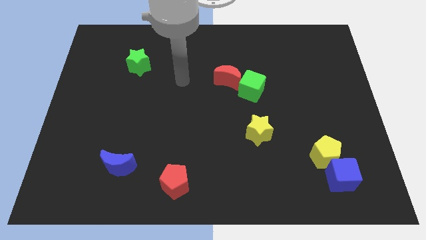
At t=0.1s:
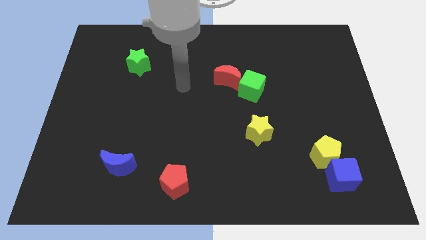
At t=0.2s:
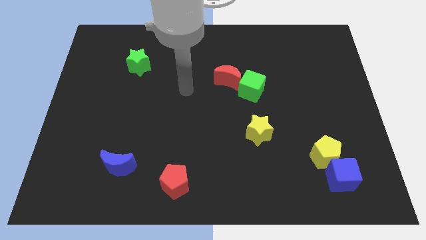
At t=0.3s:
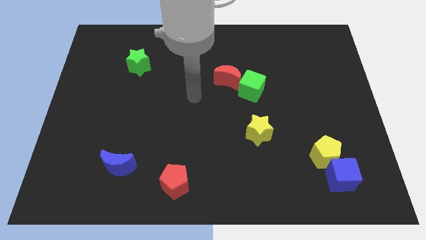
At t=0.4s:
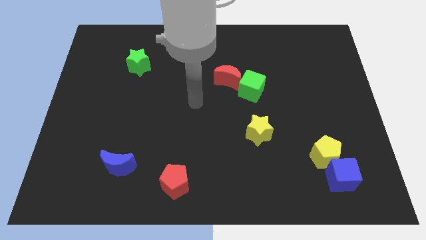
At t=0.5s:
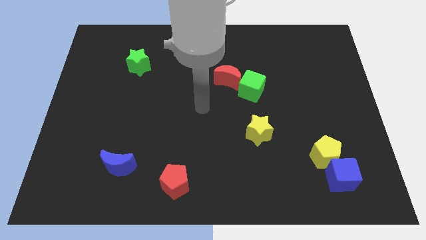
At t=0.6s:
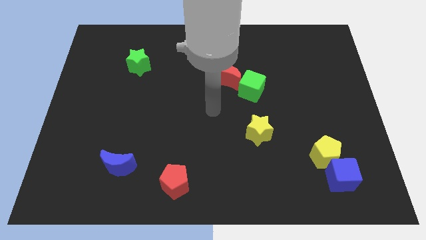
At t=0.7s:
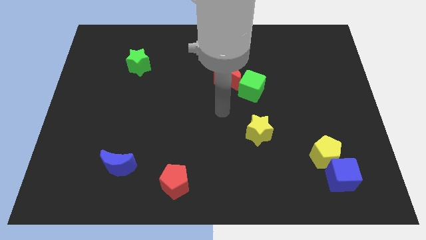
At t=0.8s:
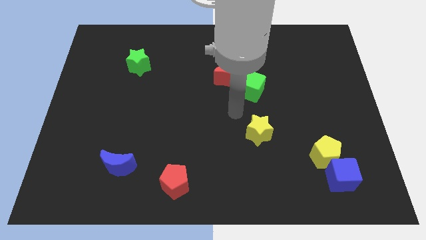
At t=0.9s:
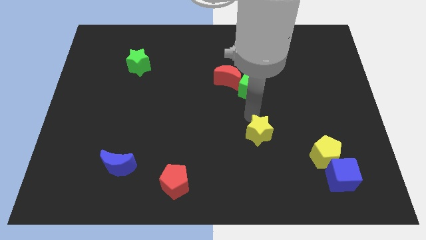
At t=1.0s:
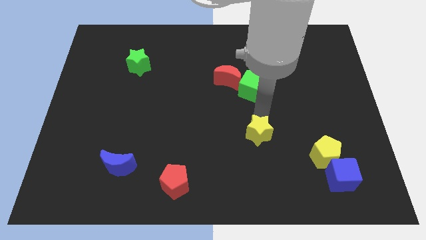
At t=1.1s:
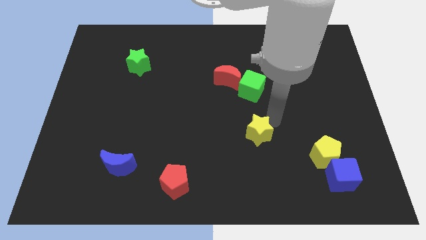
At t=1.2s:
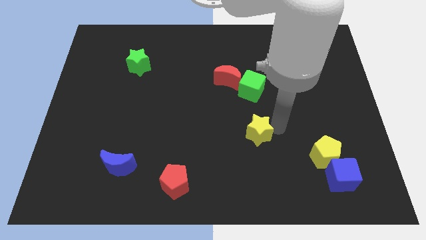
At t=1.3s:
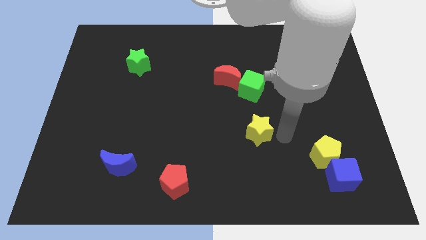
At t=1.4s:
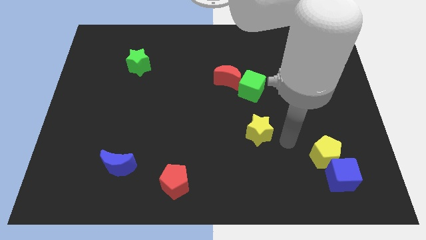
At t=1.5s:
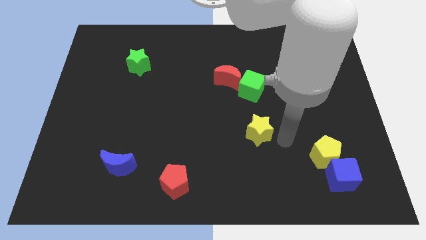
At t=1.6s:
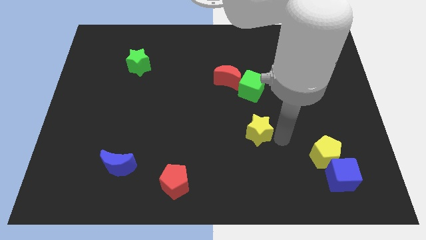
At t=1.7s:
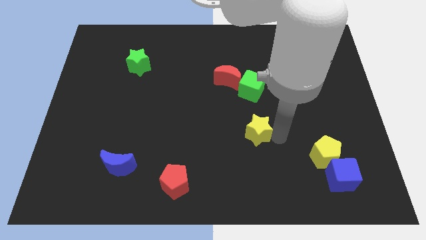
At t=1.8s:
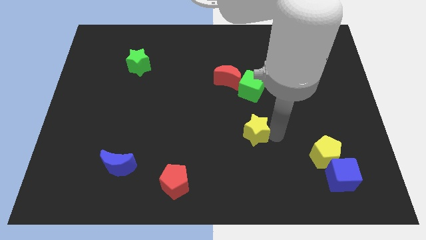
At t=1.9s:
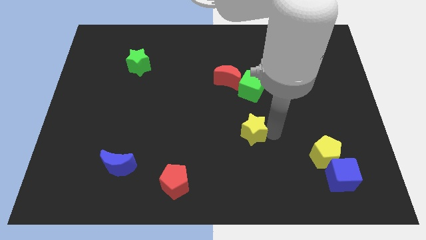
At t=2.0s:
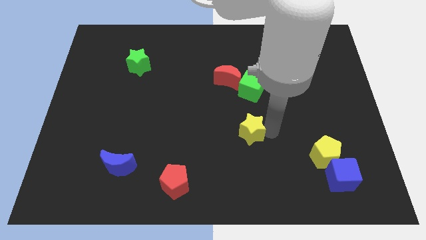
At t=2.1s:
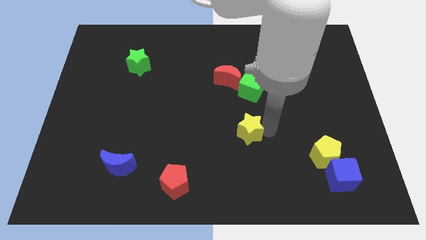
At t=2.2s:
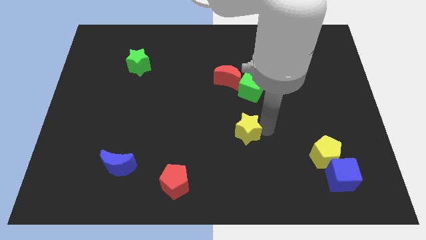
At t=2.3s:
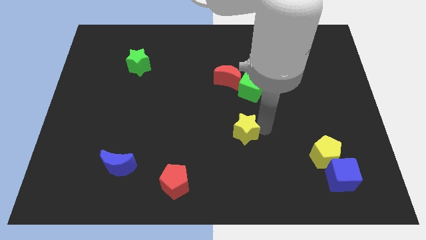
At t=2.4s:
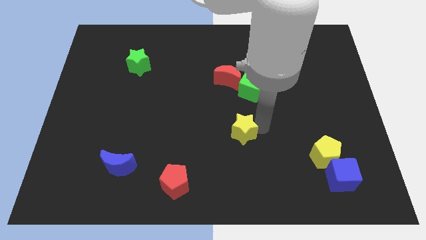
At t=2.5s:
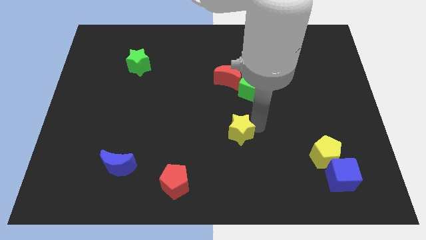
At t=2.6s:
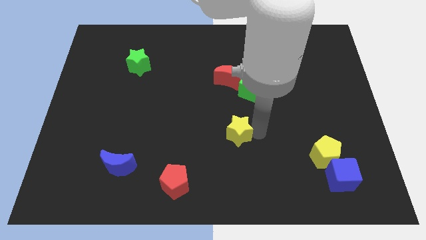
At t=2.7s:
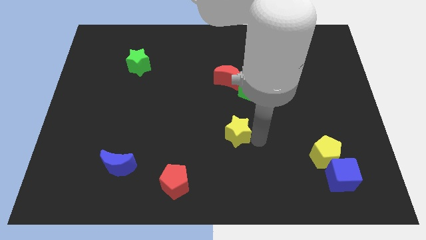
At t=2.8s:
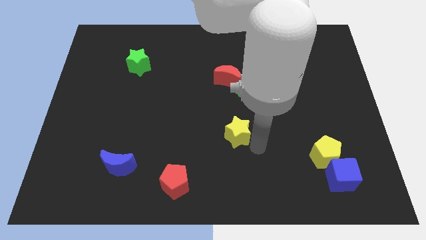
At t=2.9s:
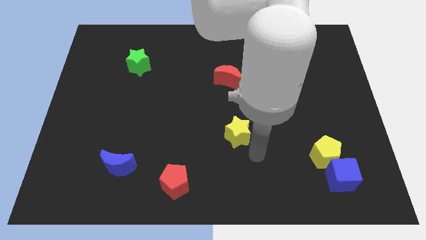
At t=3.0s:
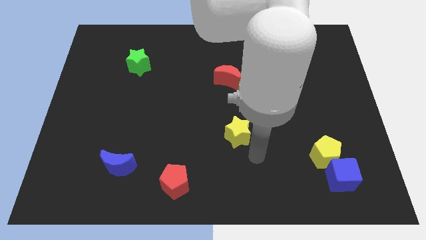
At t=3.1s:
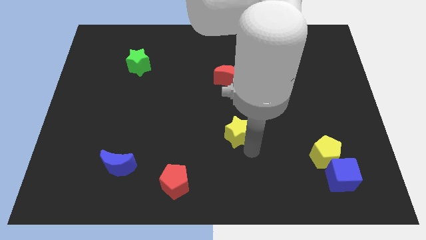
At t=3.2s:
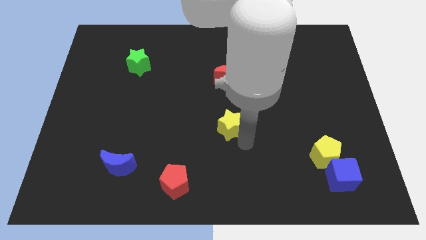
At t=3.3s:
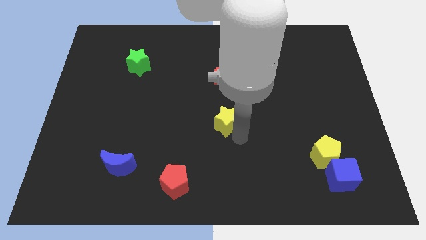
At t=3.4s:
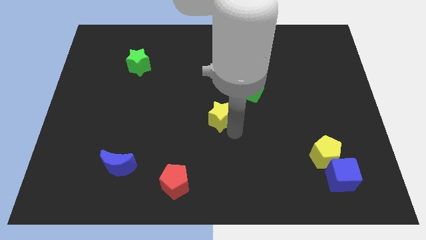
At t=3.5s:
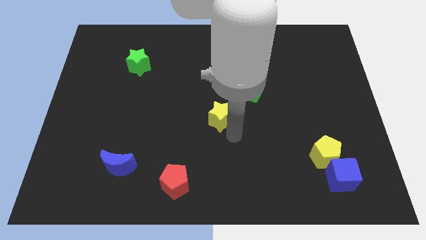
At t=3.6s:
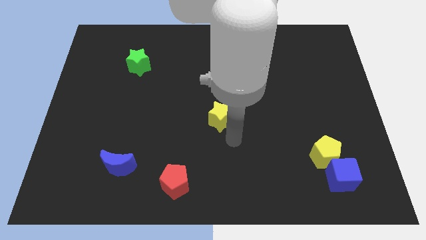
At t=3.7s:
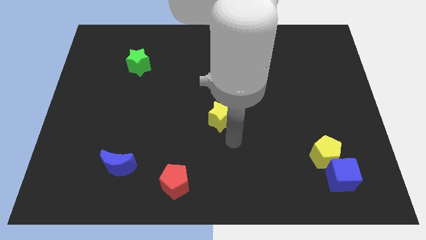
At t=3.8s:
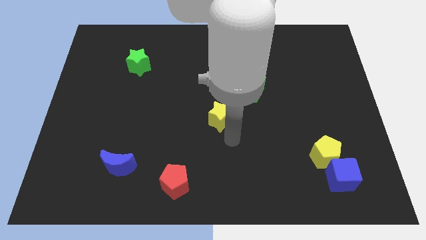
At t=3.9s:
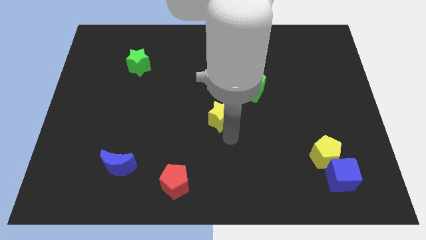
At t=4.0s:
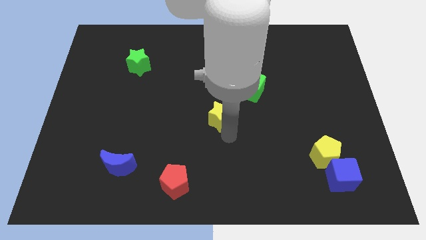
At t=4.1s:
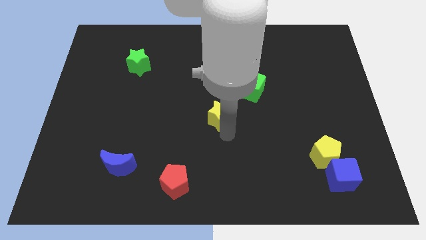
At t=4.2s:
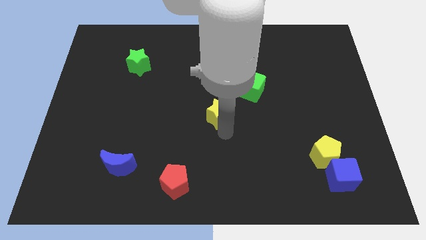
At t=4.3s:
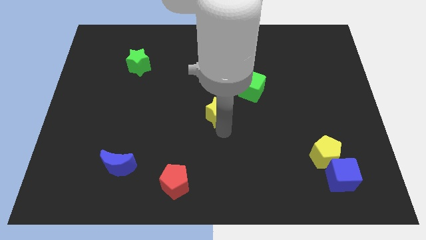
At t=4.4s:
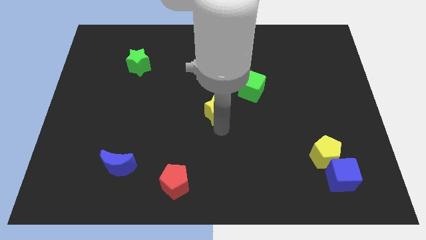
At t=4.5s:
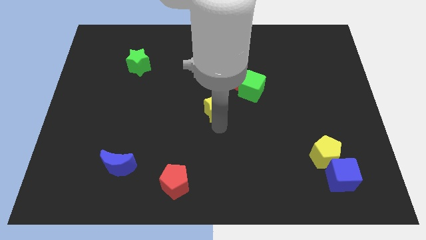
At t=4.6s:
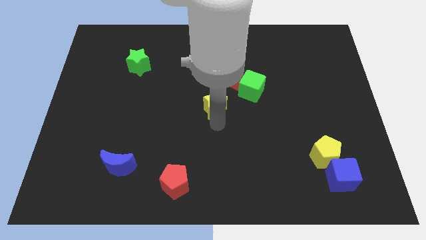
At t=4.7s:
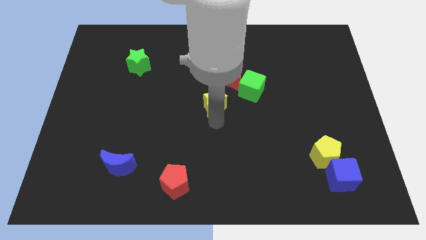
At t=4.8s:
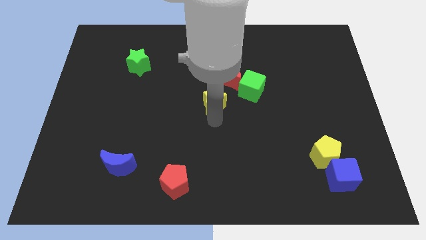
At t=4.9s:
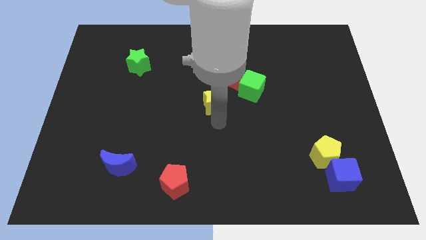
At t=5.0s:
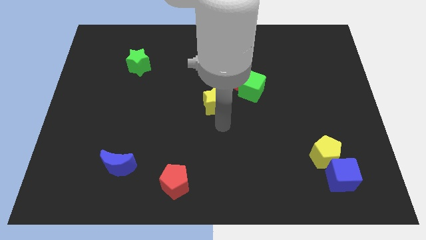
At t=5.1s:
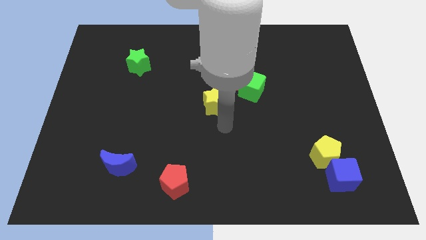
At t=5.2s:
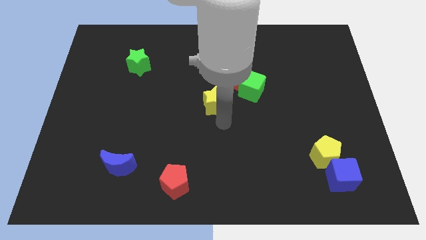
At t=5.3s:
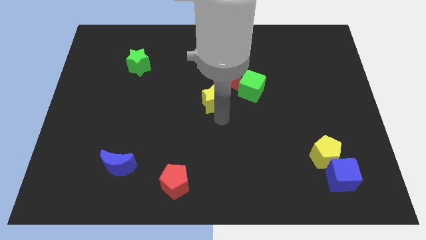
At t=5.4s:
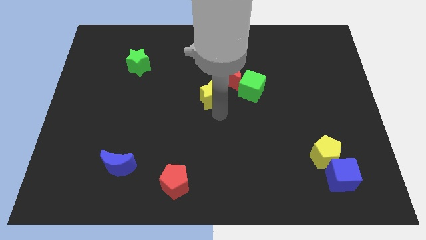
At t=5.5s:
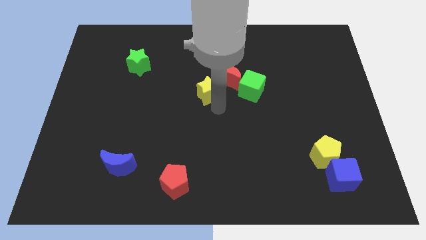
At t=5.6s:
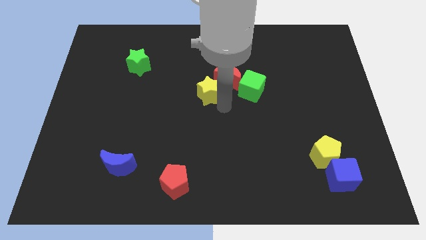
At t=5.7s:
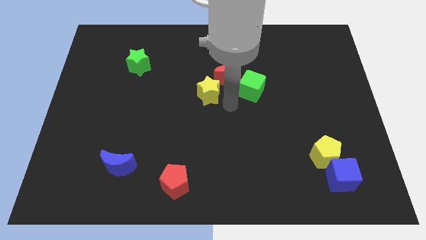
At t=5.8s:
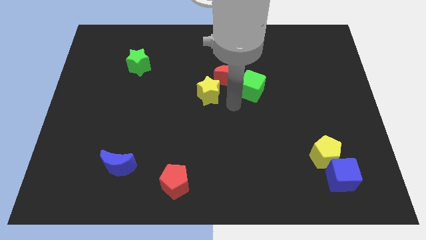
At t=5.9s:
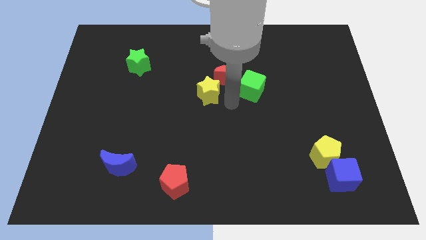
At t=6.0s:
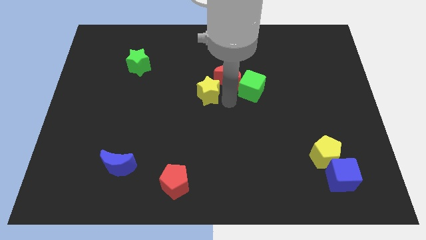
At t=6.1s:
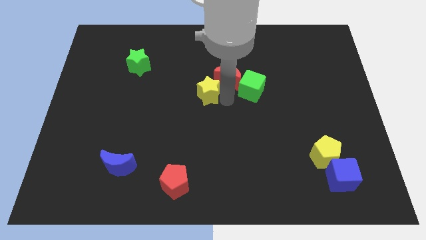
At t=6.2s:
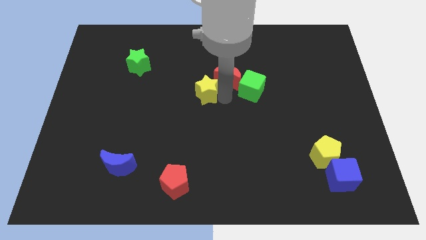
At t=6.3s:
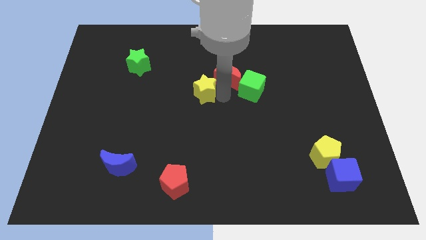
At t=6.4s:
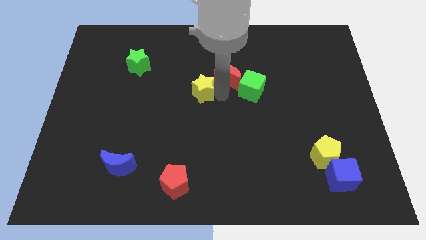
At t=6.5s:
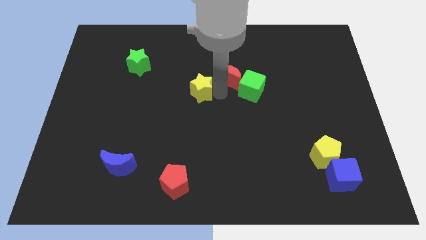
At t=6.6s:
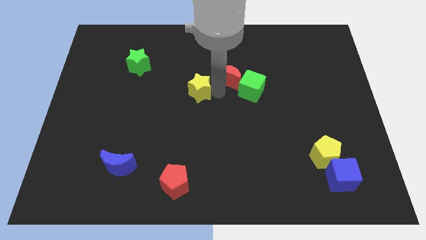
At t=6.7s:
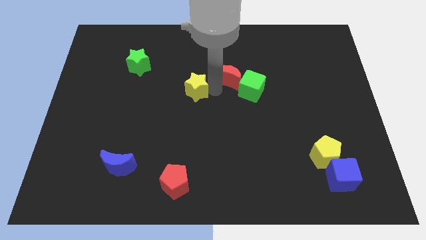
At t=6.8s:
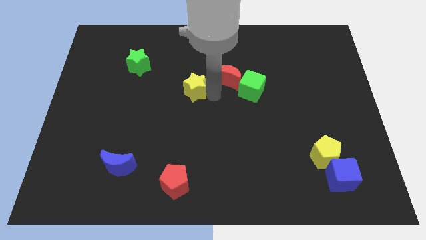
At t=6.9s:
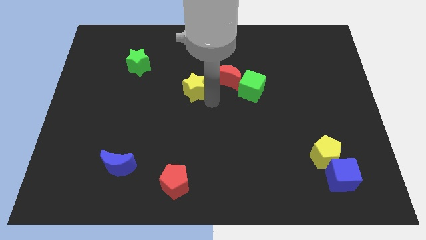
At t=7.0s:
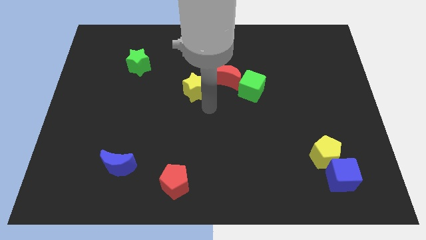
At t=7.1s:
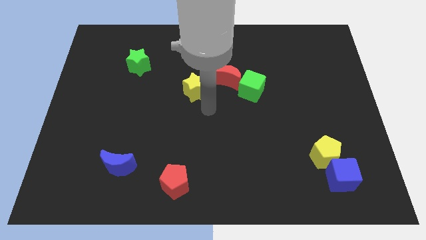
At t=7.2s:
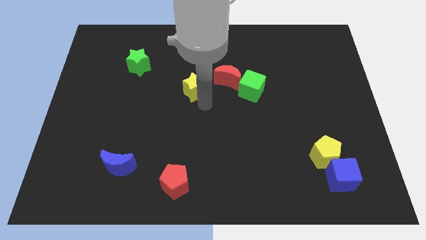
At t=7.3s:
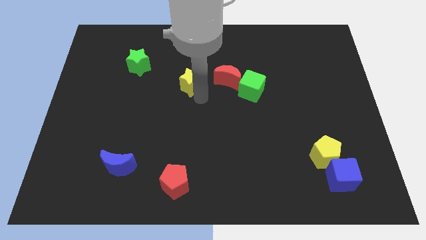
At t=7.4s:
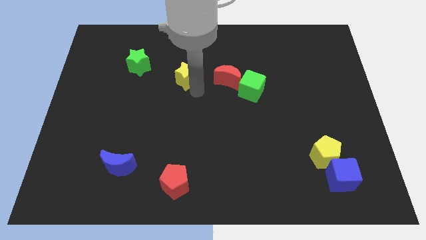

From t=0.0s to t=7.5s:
put the yellow star to the right side of the green star
